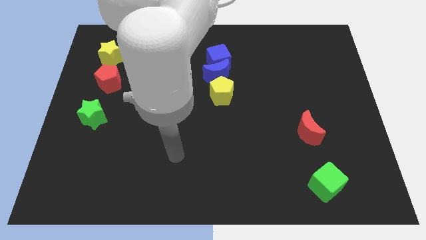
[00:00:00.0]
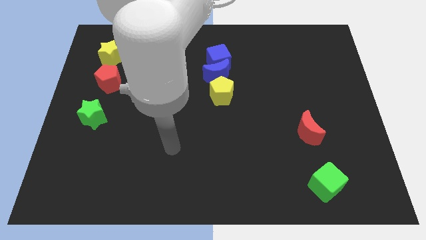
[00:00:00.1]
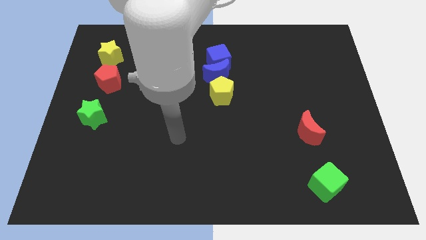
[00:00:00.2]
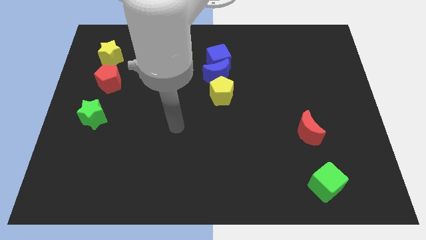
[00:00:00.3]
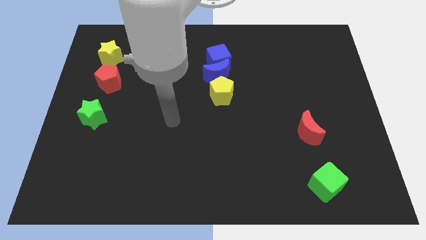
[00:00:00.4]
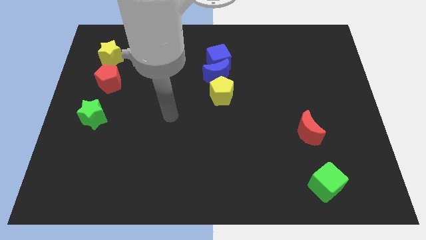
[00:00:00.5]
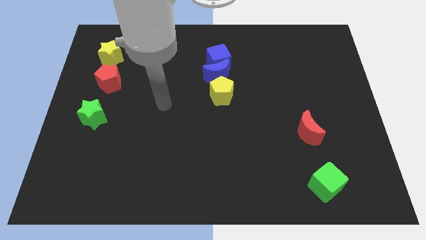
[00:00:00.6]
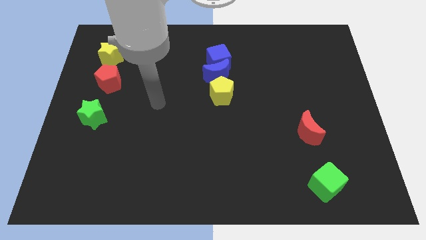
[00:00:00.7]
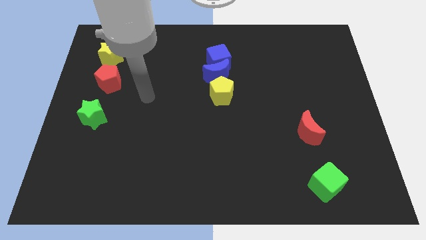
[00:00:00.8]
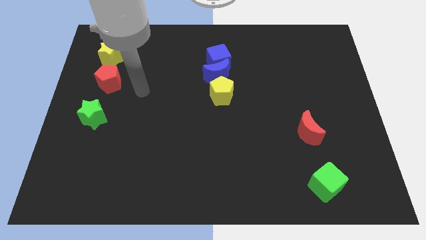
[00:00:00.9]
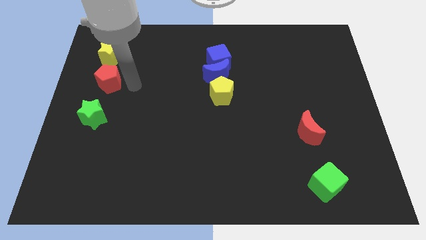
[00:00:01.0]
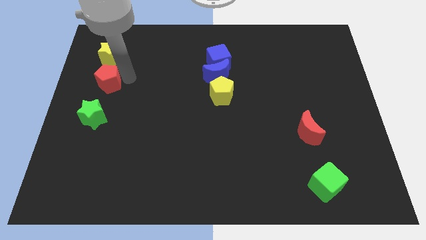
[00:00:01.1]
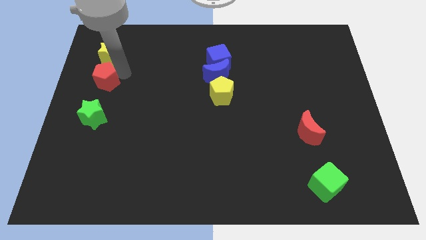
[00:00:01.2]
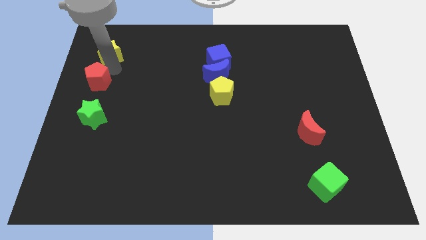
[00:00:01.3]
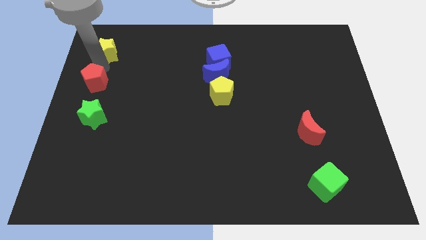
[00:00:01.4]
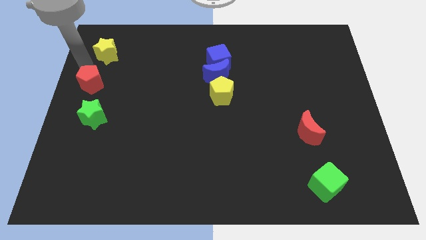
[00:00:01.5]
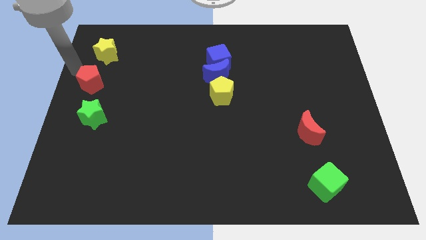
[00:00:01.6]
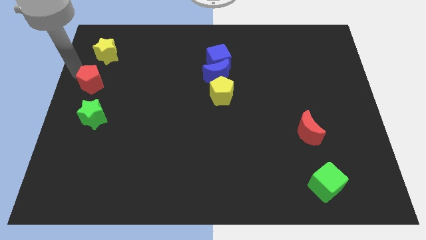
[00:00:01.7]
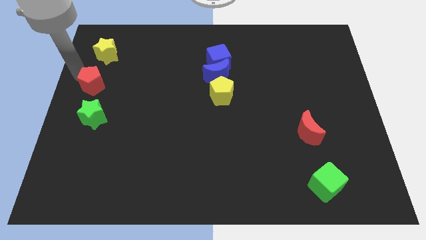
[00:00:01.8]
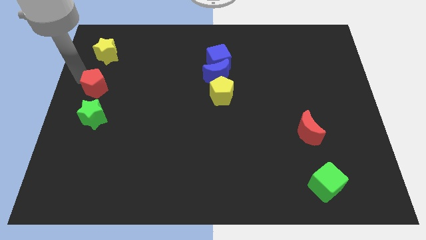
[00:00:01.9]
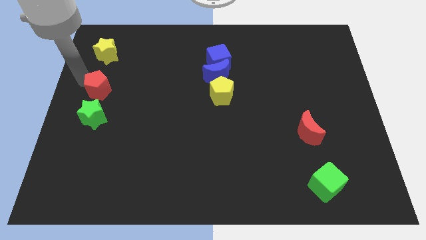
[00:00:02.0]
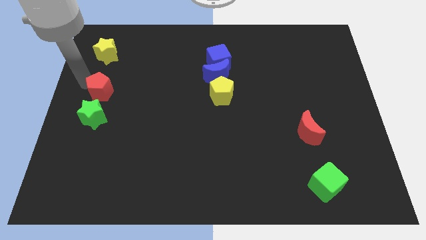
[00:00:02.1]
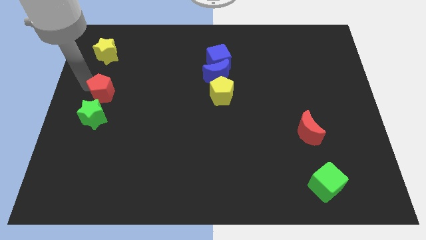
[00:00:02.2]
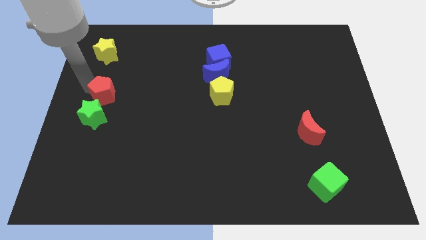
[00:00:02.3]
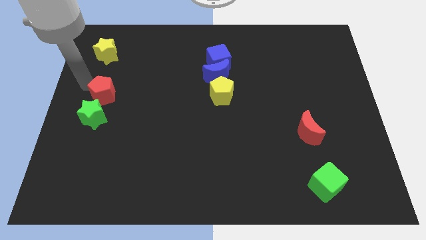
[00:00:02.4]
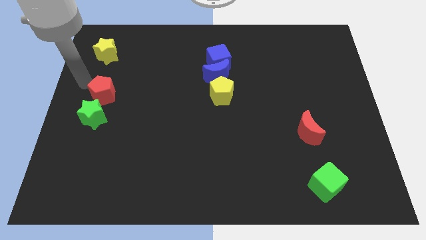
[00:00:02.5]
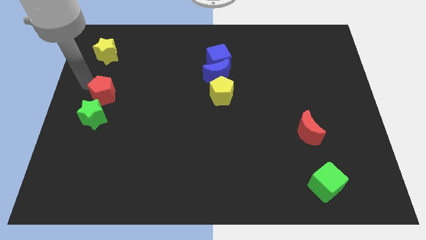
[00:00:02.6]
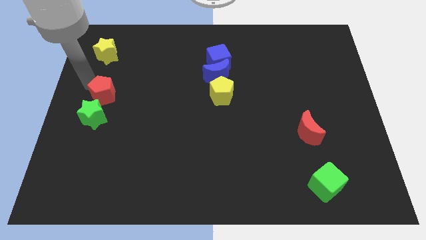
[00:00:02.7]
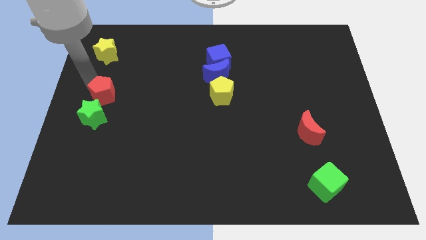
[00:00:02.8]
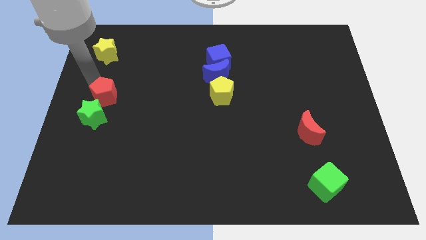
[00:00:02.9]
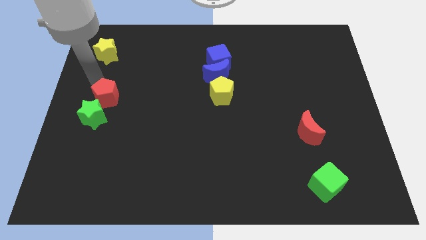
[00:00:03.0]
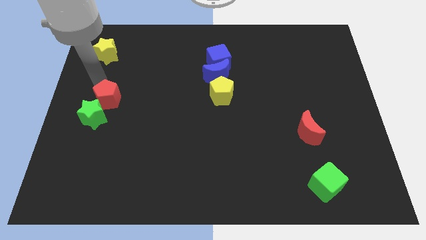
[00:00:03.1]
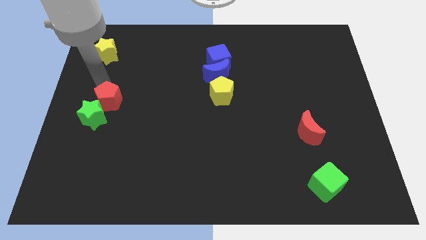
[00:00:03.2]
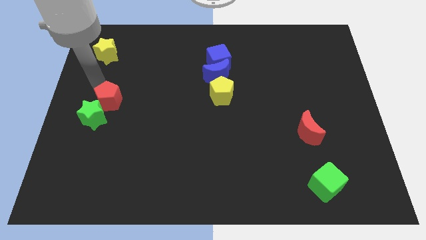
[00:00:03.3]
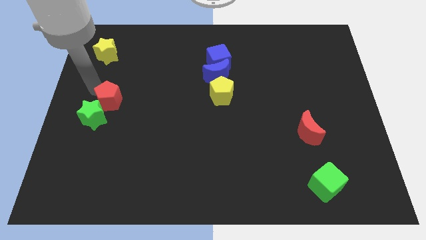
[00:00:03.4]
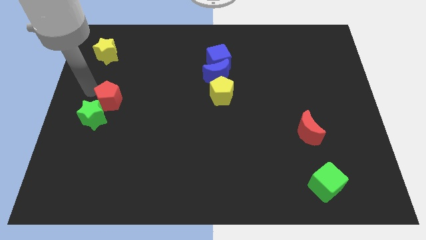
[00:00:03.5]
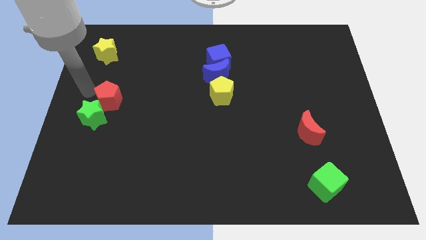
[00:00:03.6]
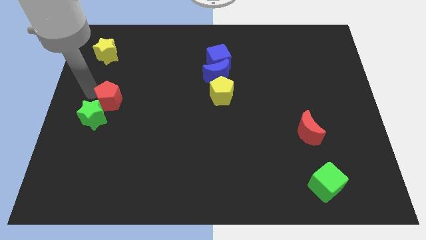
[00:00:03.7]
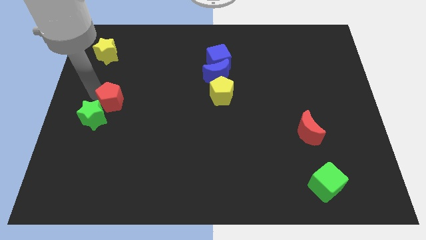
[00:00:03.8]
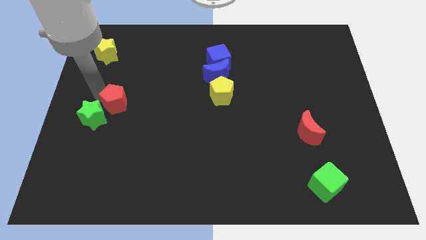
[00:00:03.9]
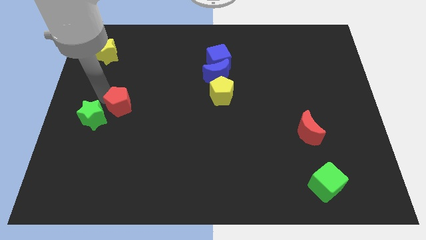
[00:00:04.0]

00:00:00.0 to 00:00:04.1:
slide the red pentagon a bit diagonally down and to the right

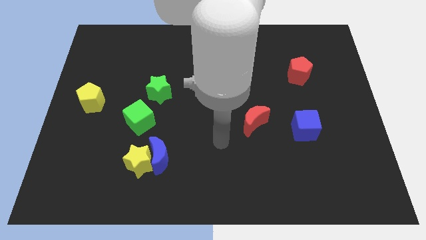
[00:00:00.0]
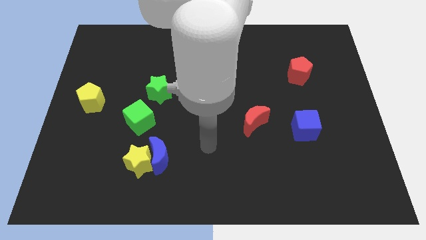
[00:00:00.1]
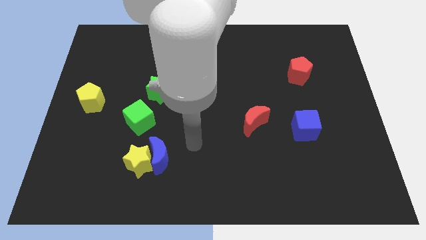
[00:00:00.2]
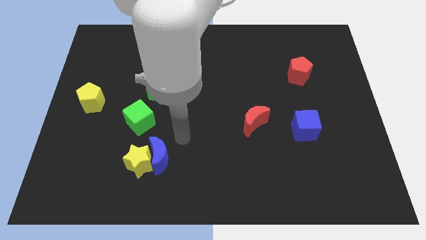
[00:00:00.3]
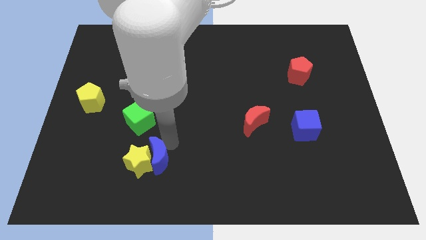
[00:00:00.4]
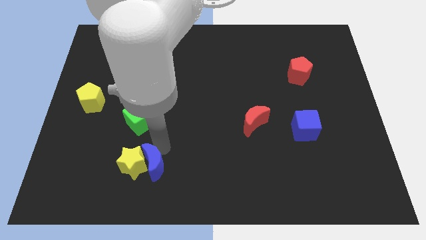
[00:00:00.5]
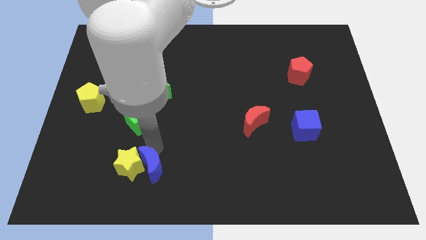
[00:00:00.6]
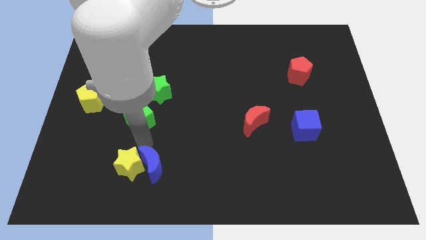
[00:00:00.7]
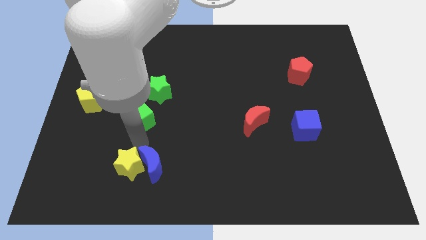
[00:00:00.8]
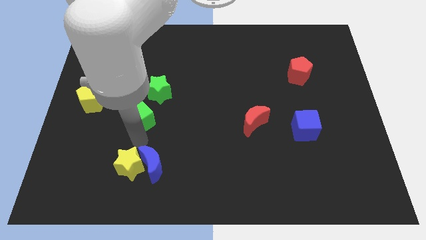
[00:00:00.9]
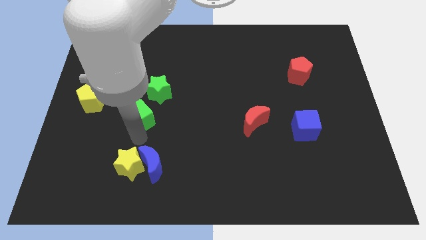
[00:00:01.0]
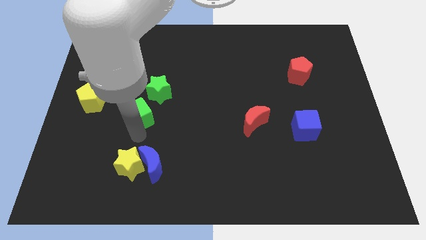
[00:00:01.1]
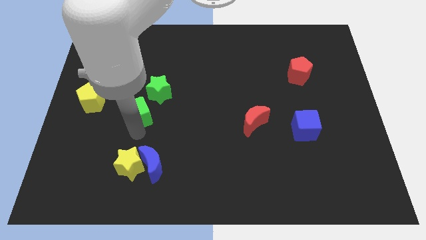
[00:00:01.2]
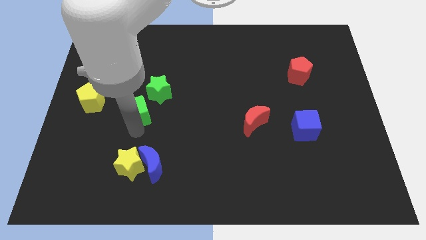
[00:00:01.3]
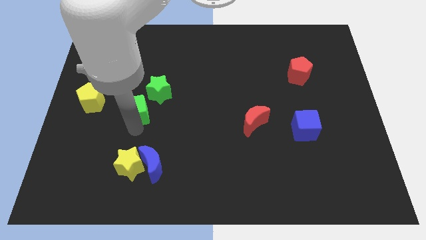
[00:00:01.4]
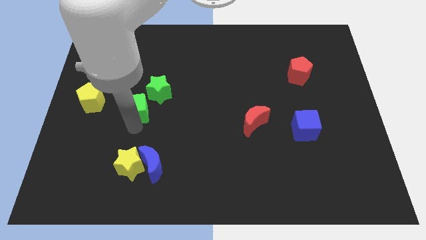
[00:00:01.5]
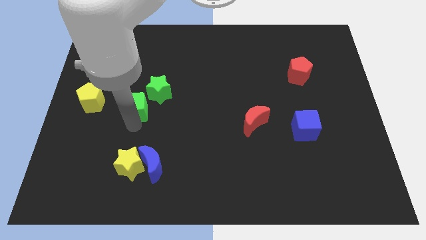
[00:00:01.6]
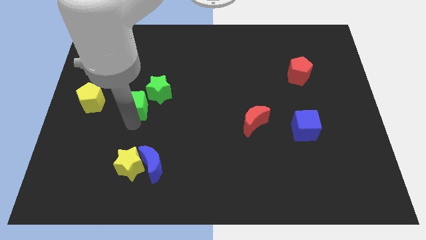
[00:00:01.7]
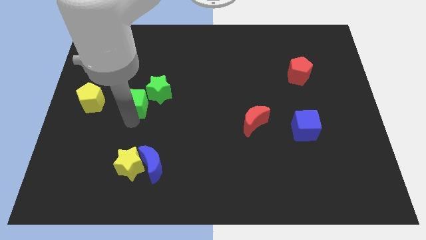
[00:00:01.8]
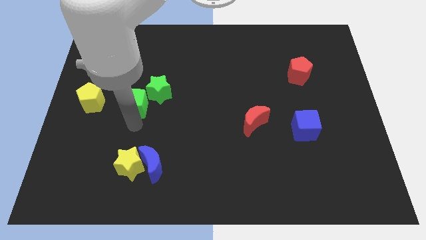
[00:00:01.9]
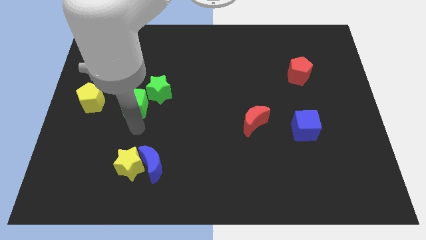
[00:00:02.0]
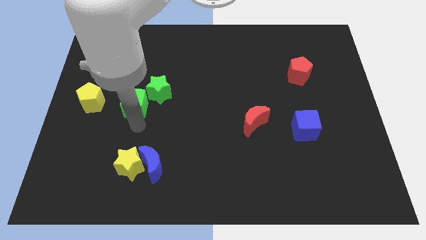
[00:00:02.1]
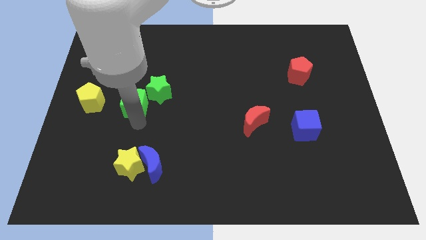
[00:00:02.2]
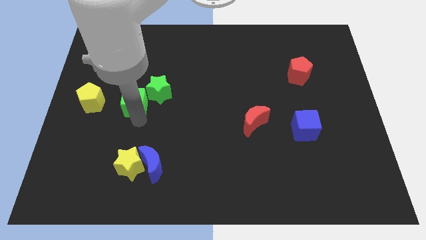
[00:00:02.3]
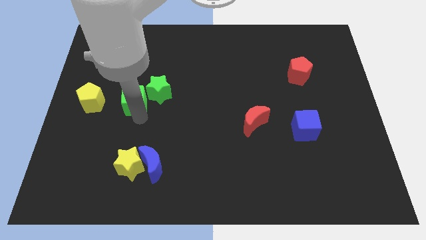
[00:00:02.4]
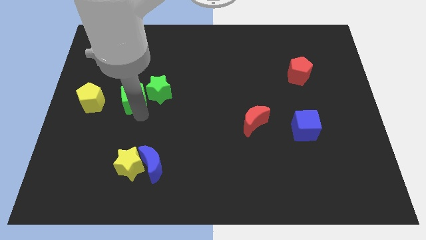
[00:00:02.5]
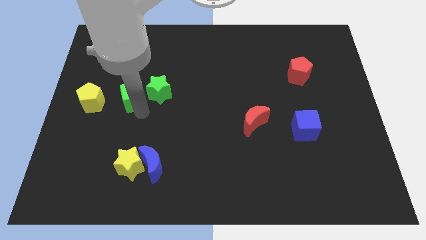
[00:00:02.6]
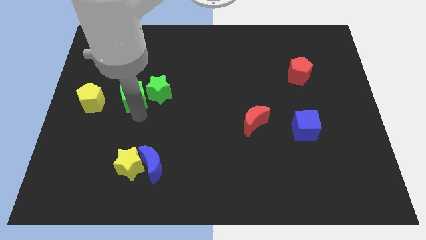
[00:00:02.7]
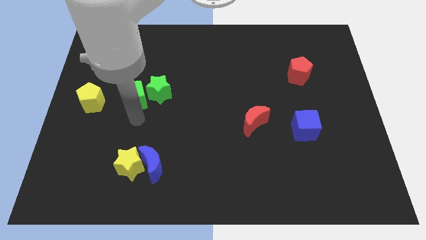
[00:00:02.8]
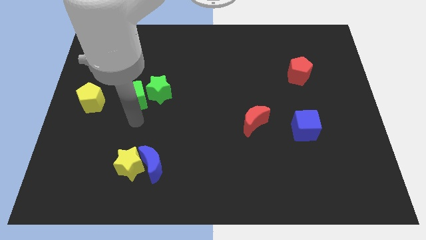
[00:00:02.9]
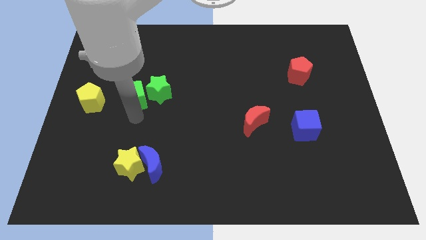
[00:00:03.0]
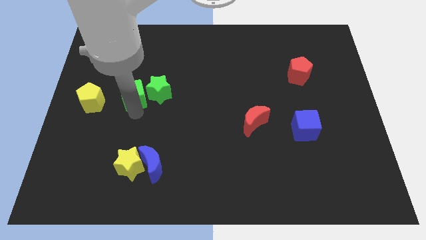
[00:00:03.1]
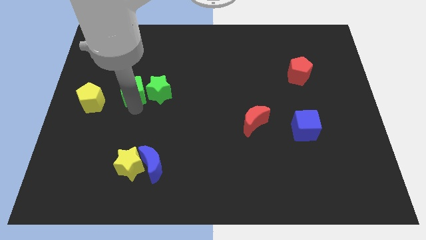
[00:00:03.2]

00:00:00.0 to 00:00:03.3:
move the green cube up a little bit

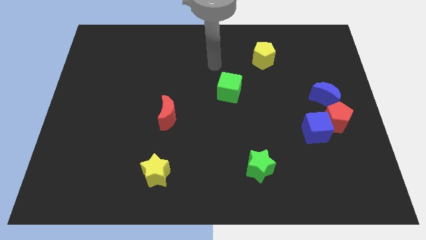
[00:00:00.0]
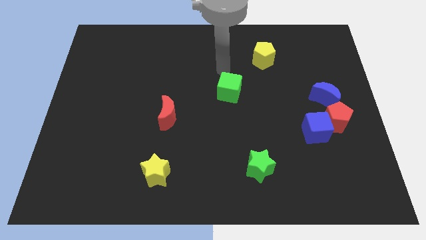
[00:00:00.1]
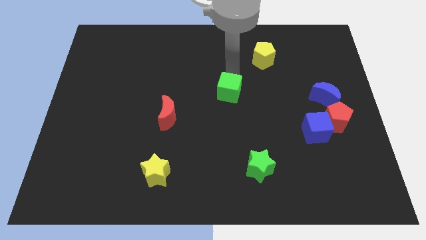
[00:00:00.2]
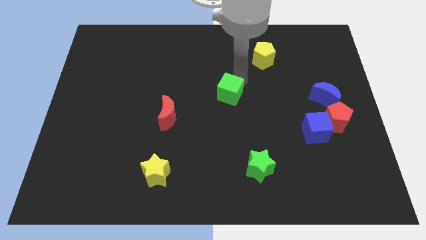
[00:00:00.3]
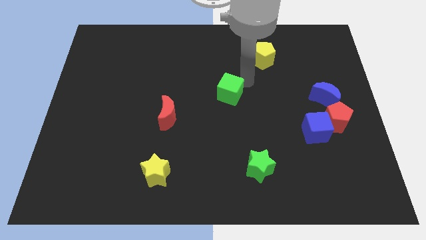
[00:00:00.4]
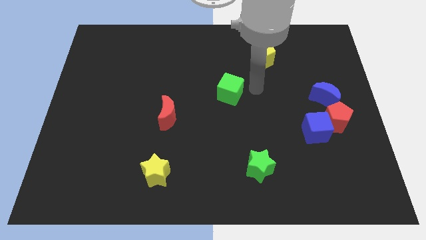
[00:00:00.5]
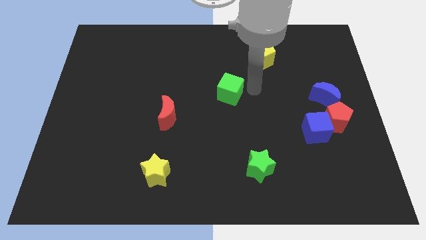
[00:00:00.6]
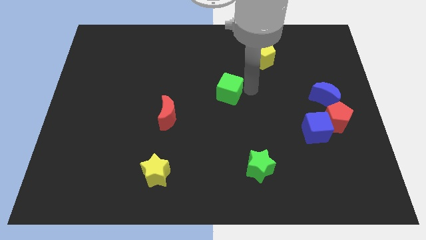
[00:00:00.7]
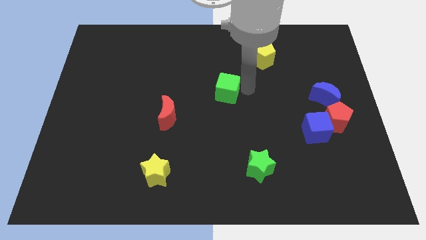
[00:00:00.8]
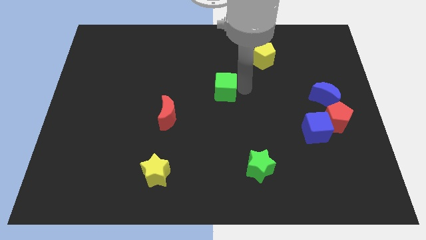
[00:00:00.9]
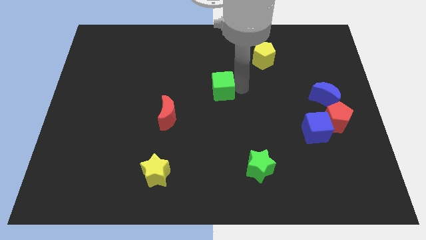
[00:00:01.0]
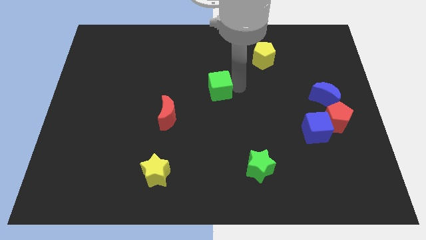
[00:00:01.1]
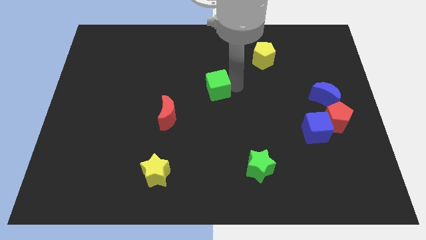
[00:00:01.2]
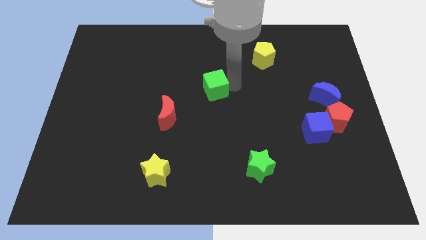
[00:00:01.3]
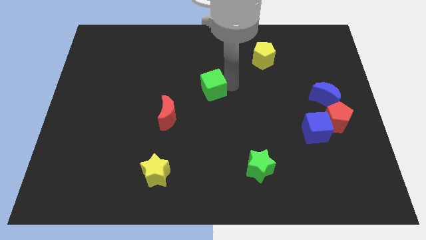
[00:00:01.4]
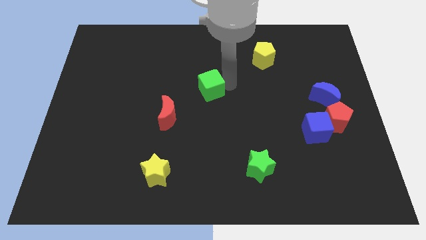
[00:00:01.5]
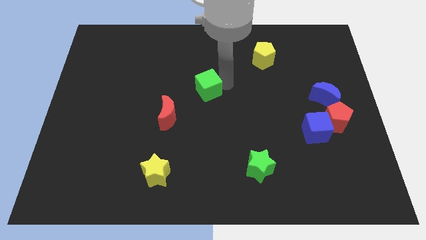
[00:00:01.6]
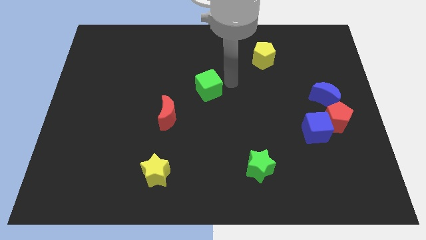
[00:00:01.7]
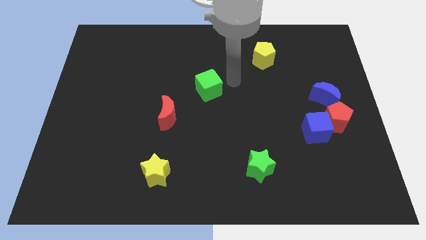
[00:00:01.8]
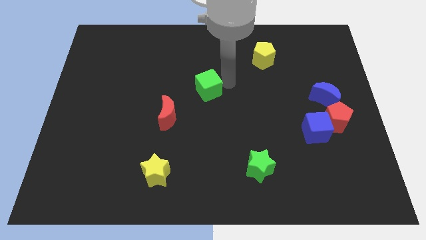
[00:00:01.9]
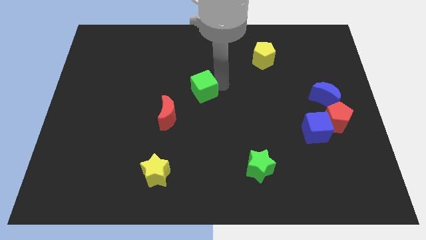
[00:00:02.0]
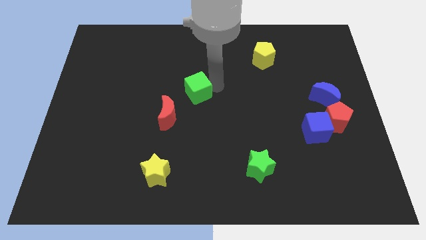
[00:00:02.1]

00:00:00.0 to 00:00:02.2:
move the green cube to the left a little bit
